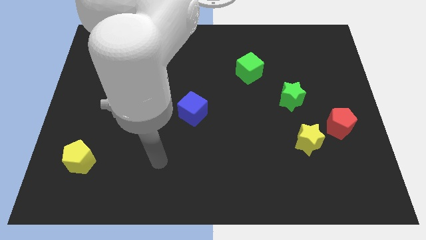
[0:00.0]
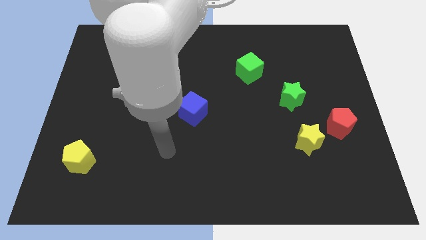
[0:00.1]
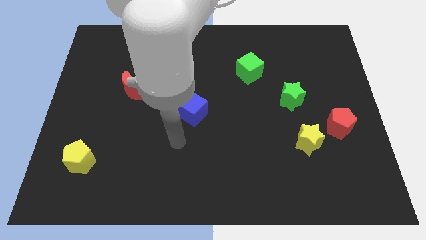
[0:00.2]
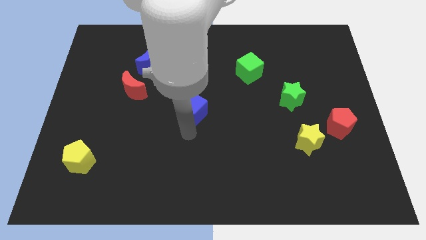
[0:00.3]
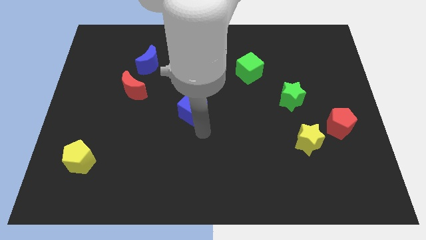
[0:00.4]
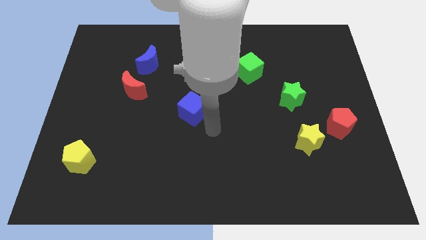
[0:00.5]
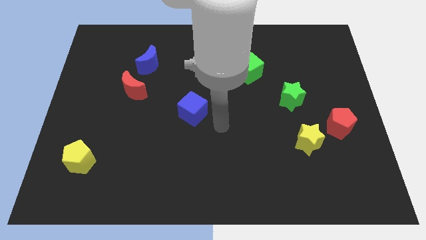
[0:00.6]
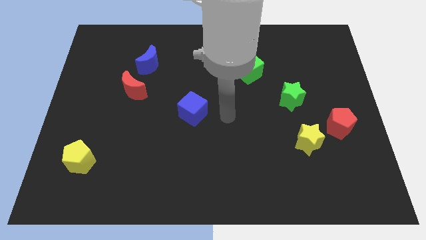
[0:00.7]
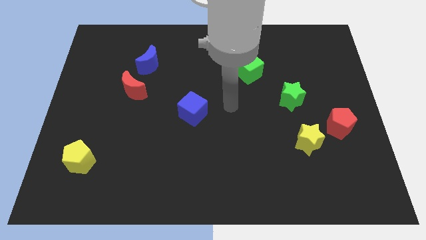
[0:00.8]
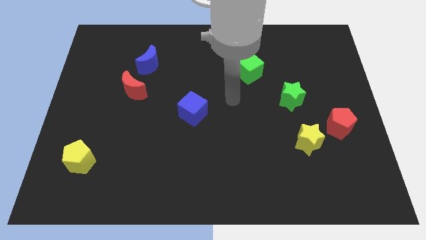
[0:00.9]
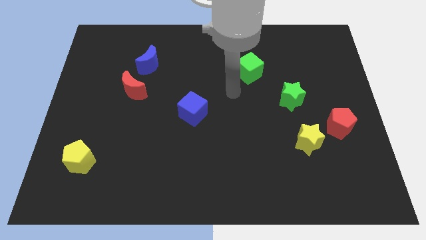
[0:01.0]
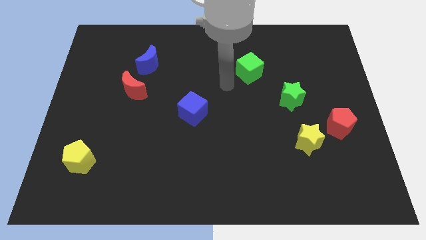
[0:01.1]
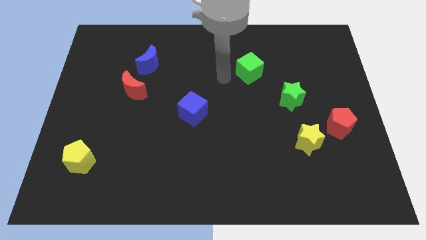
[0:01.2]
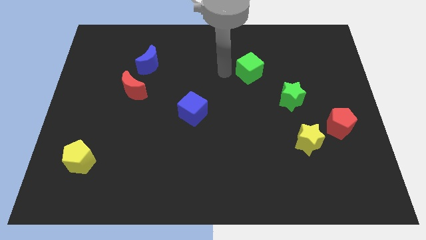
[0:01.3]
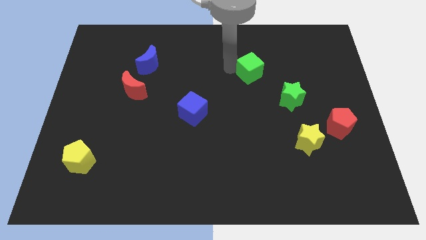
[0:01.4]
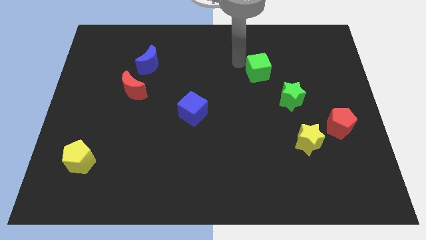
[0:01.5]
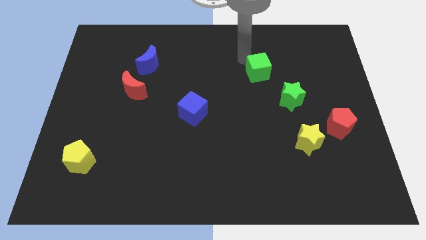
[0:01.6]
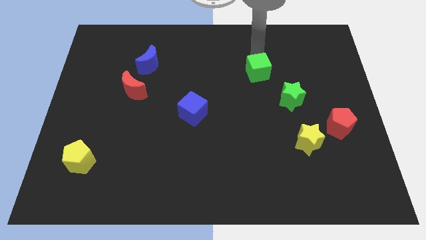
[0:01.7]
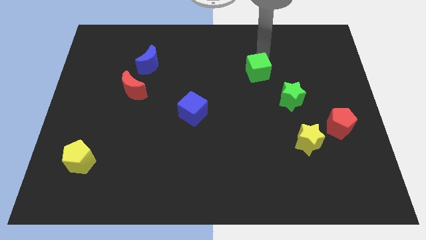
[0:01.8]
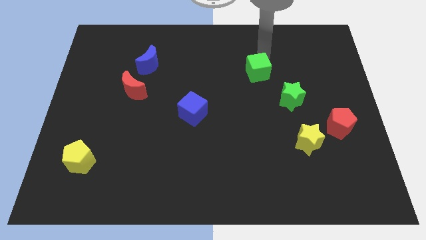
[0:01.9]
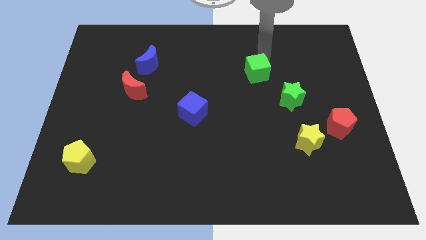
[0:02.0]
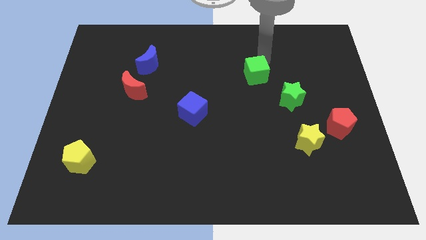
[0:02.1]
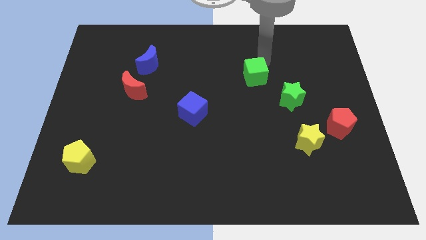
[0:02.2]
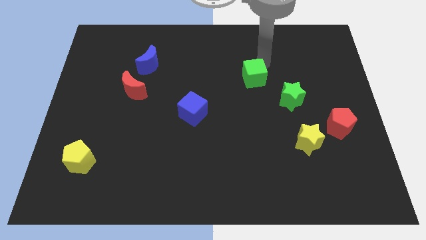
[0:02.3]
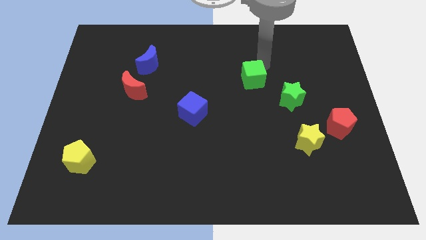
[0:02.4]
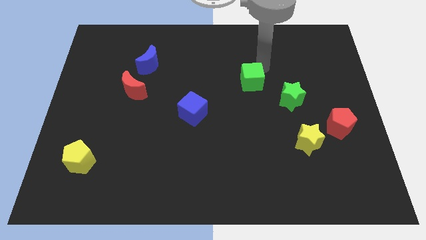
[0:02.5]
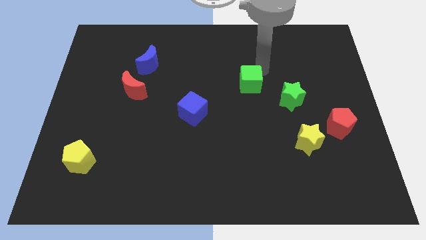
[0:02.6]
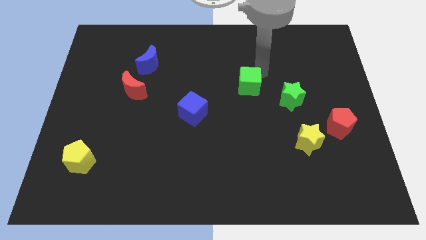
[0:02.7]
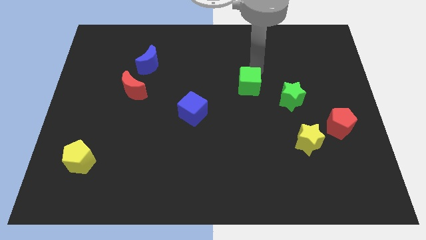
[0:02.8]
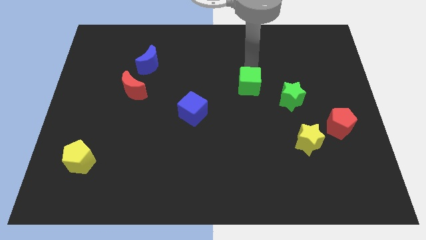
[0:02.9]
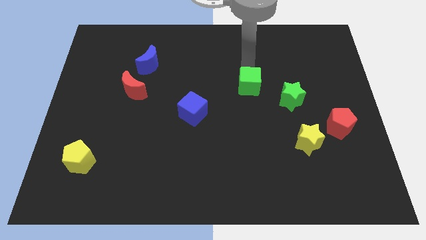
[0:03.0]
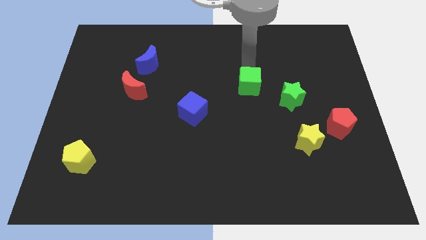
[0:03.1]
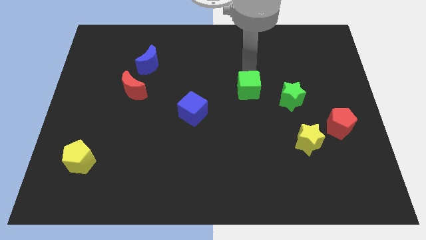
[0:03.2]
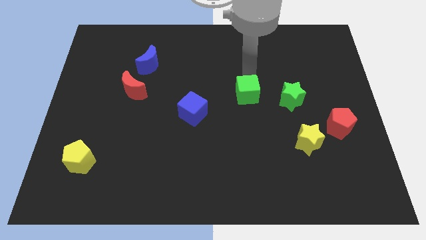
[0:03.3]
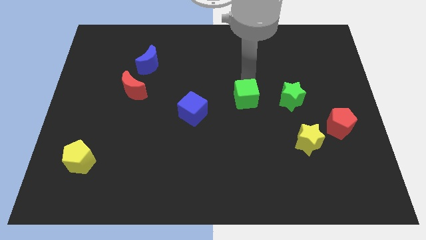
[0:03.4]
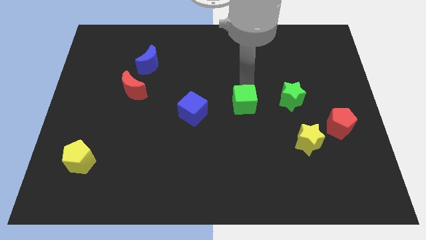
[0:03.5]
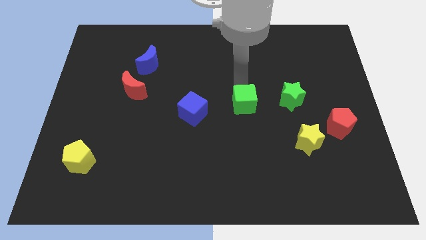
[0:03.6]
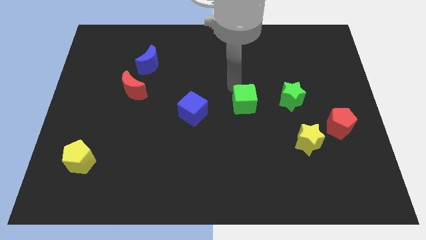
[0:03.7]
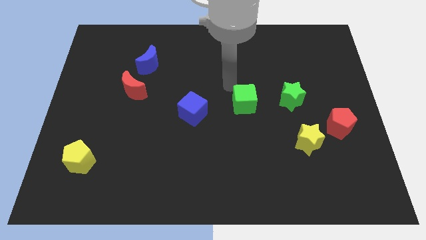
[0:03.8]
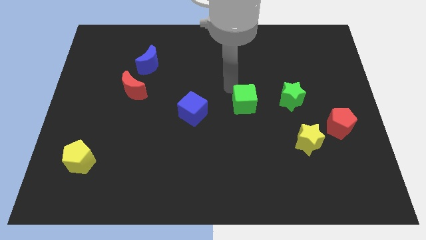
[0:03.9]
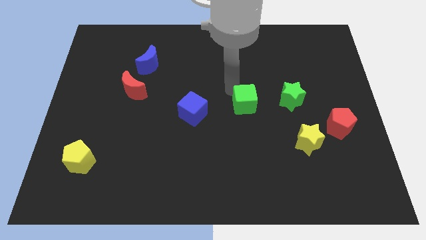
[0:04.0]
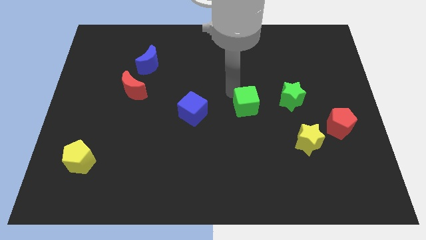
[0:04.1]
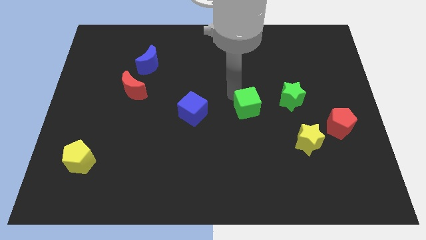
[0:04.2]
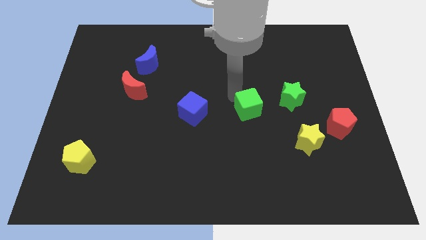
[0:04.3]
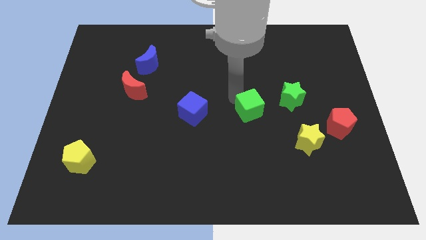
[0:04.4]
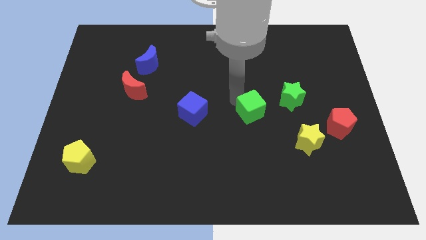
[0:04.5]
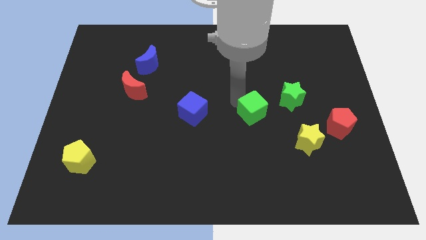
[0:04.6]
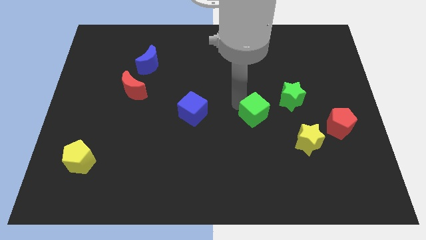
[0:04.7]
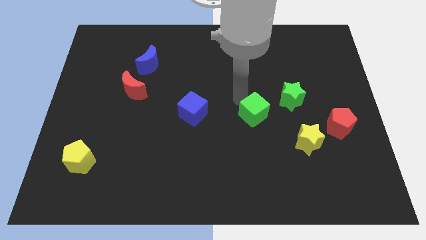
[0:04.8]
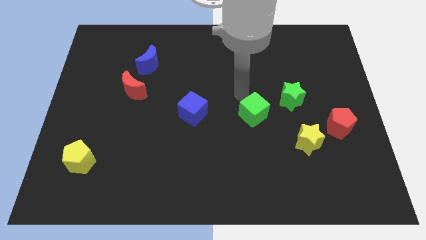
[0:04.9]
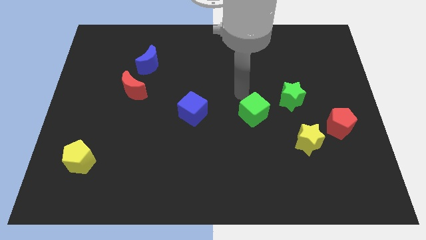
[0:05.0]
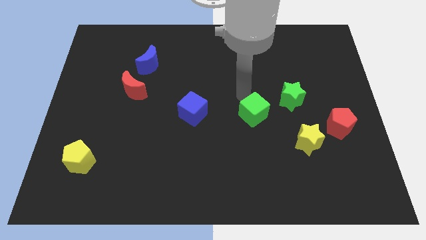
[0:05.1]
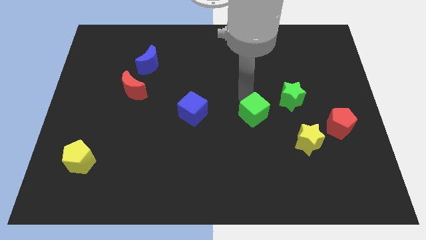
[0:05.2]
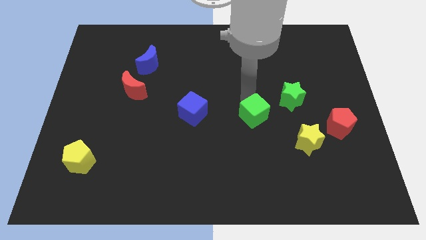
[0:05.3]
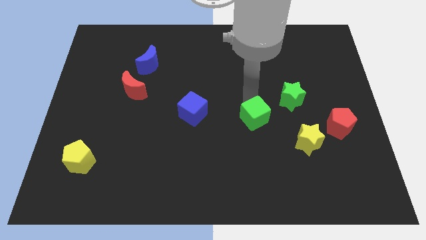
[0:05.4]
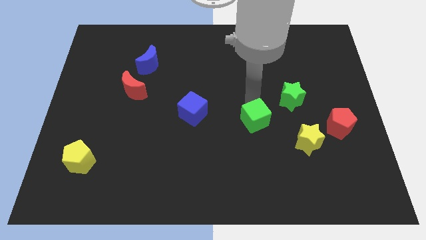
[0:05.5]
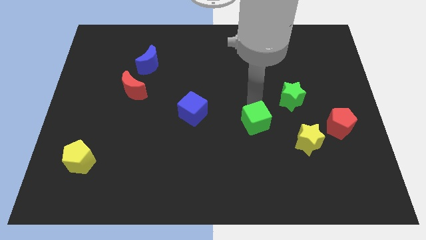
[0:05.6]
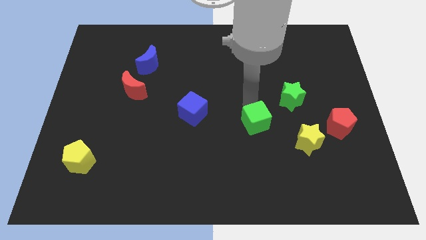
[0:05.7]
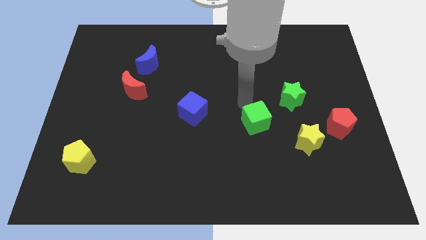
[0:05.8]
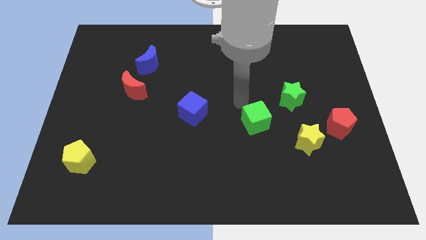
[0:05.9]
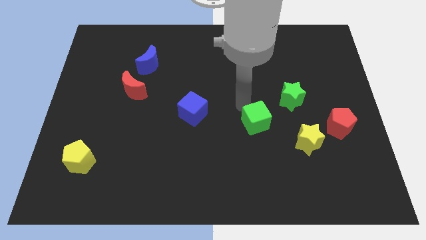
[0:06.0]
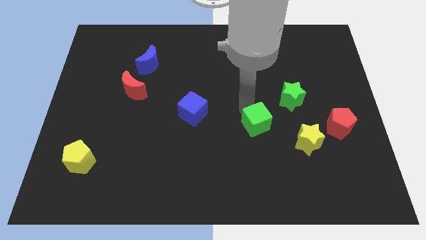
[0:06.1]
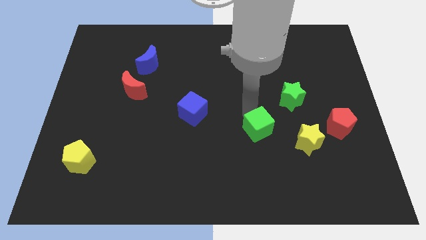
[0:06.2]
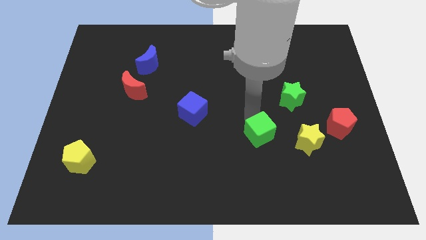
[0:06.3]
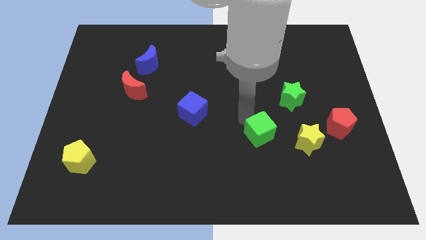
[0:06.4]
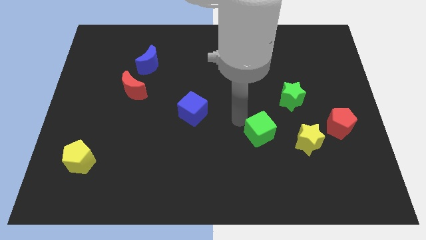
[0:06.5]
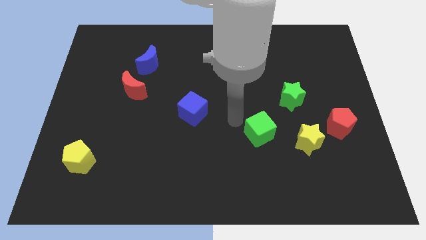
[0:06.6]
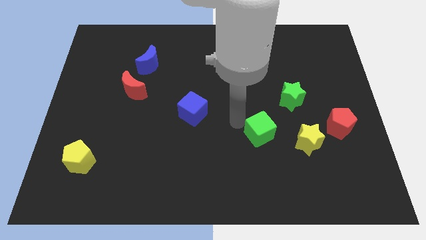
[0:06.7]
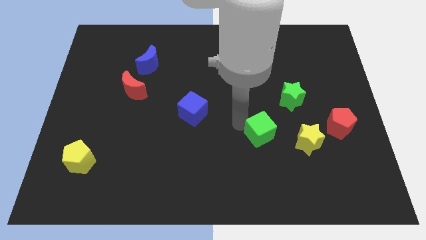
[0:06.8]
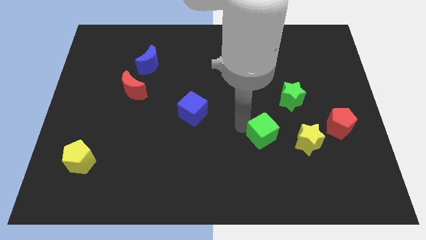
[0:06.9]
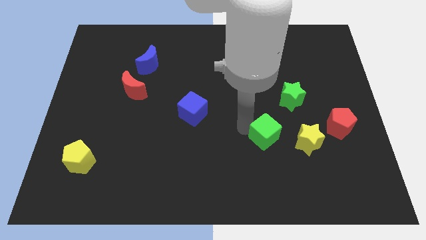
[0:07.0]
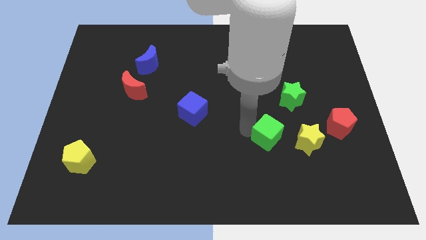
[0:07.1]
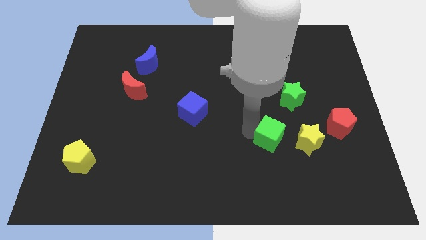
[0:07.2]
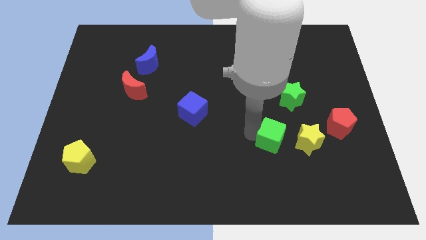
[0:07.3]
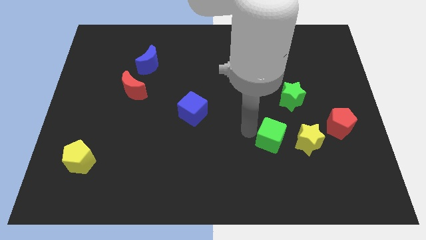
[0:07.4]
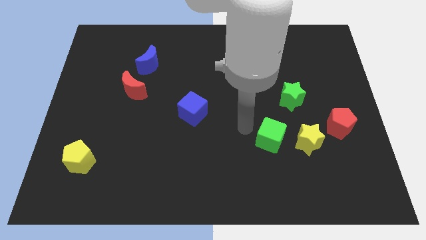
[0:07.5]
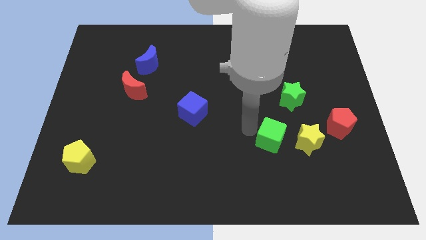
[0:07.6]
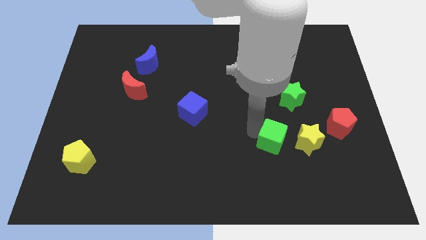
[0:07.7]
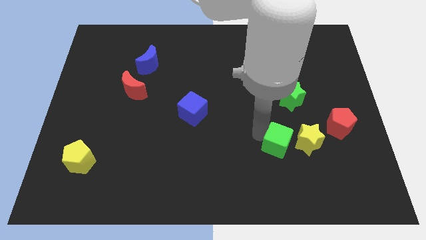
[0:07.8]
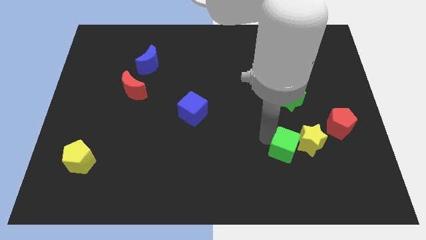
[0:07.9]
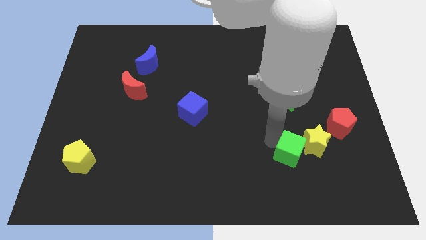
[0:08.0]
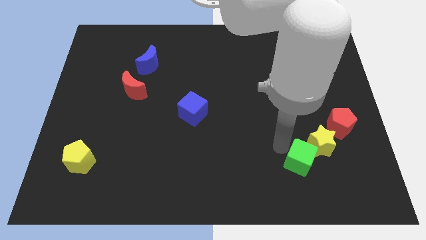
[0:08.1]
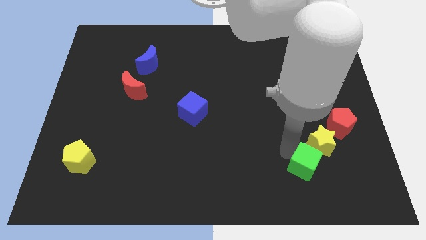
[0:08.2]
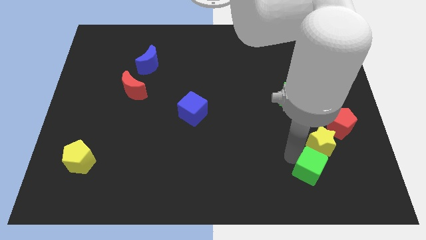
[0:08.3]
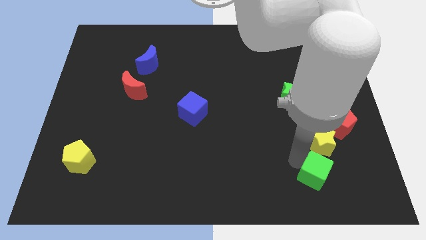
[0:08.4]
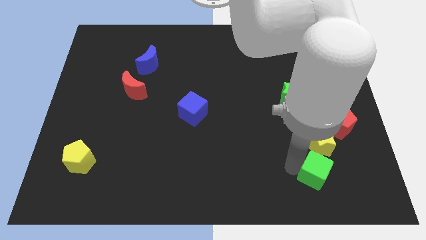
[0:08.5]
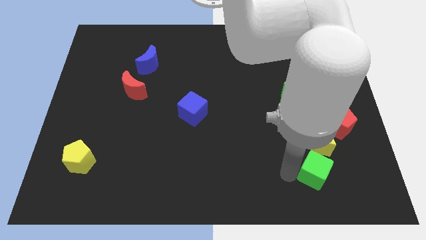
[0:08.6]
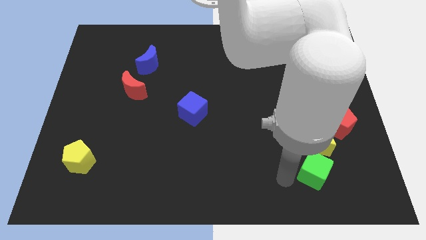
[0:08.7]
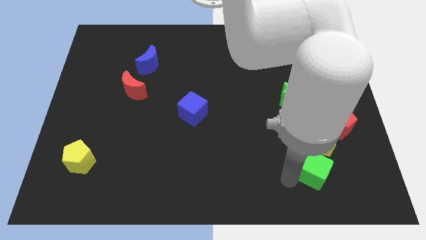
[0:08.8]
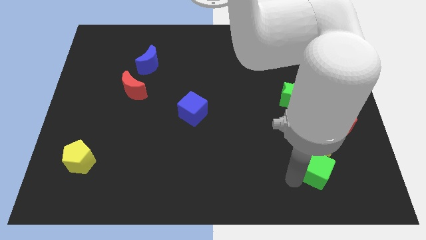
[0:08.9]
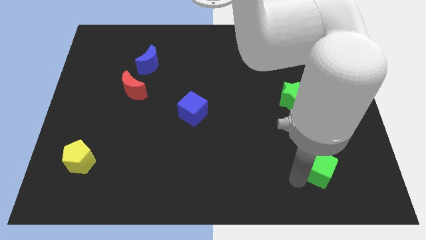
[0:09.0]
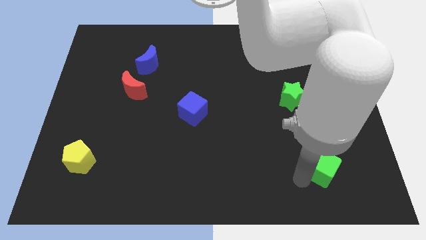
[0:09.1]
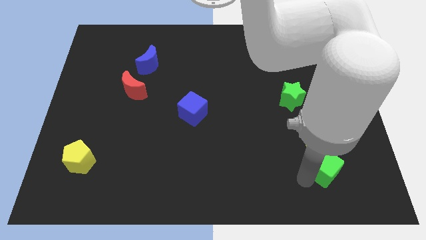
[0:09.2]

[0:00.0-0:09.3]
push the green cube diagonally down and to the right of the yellow star
